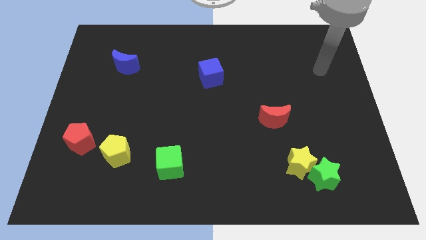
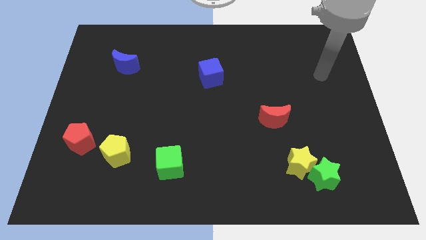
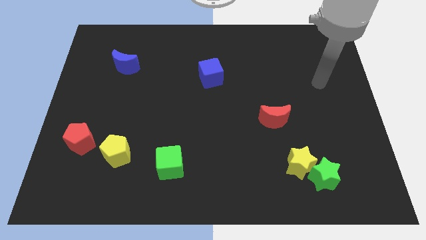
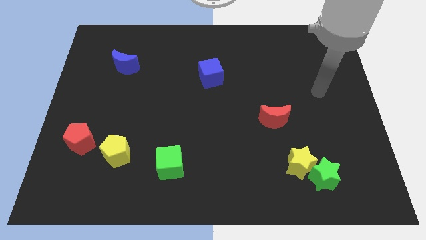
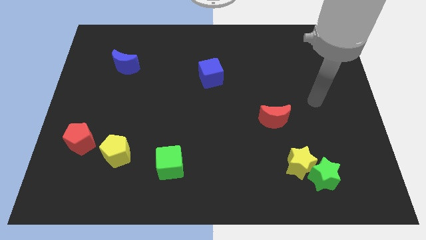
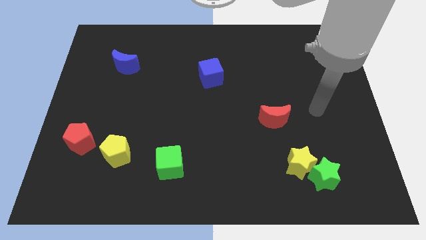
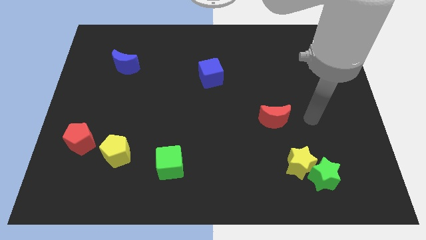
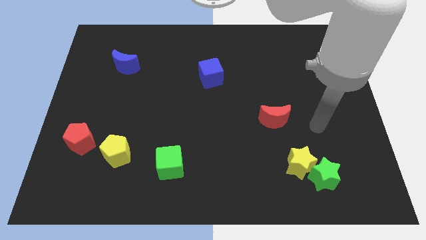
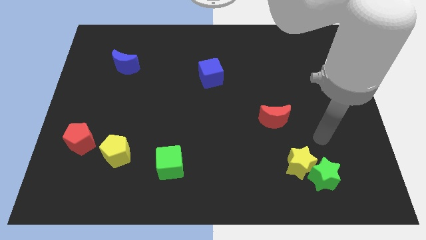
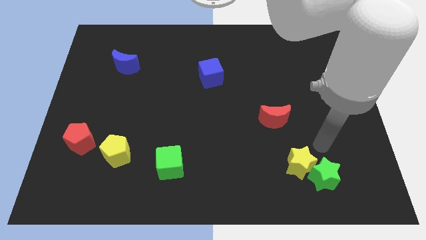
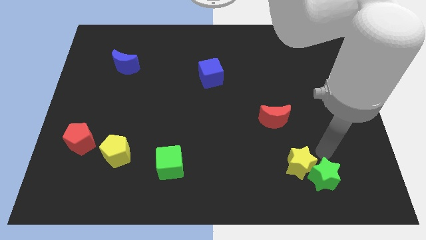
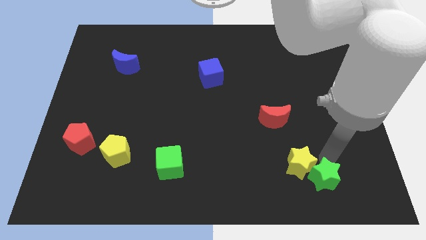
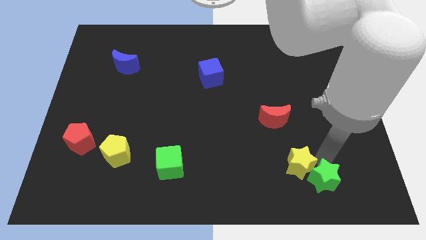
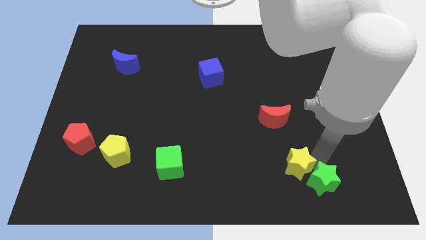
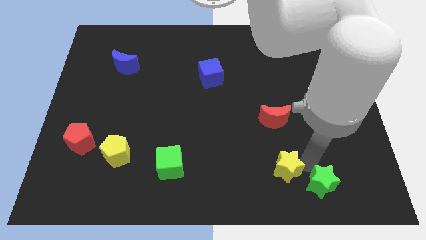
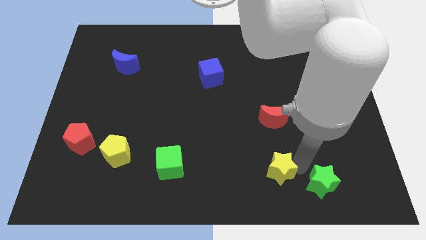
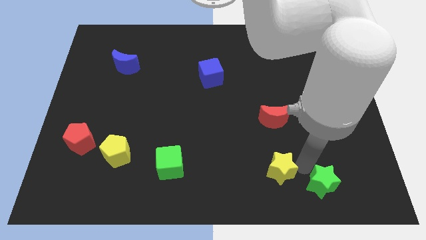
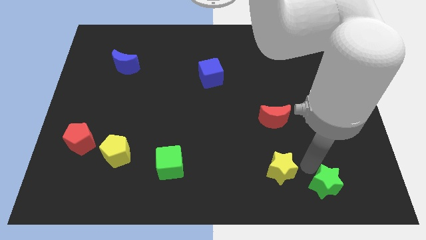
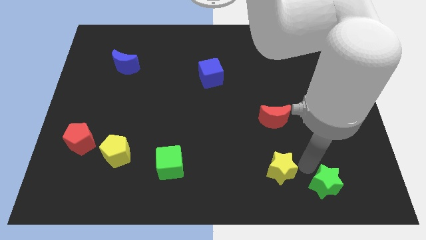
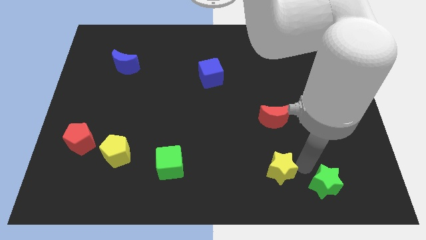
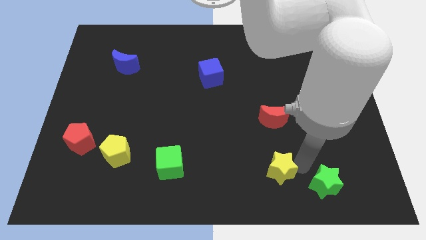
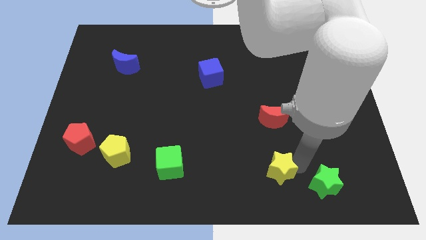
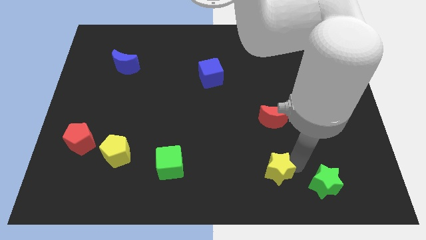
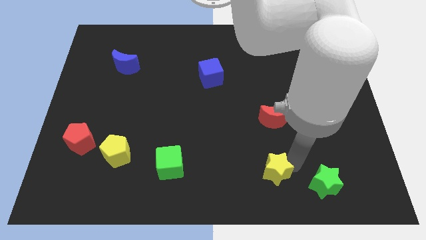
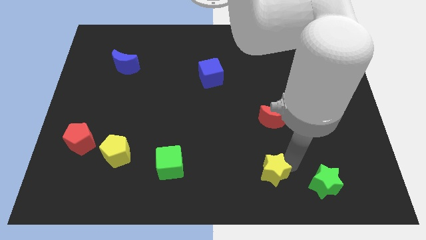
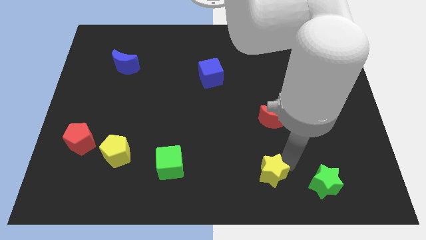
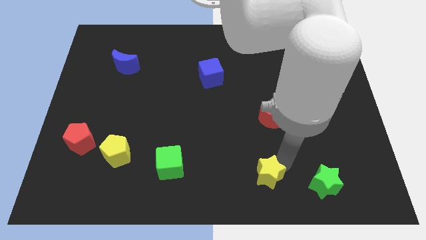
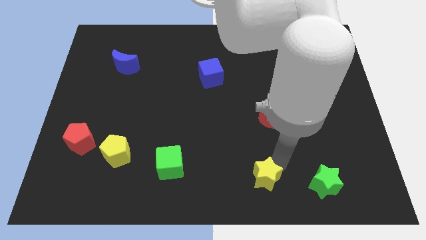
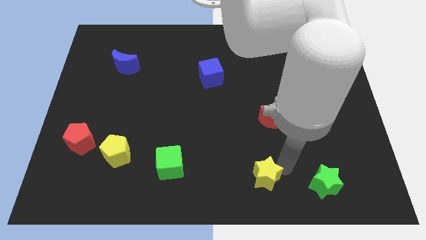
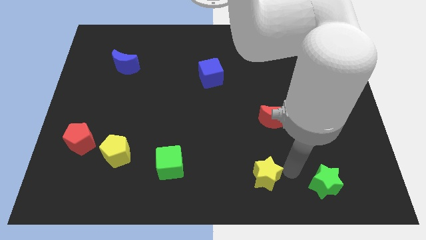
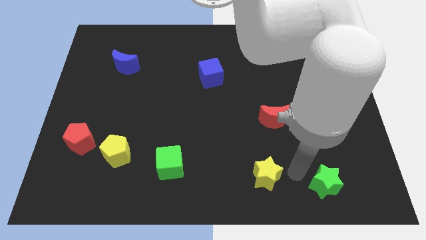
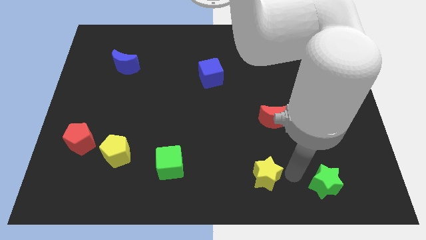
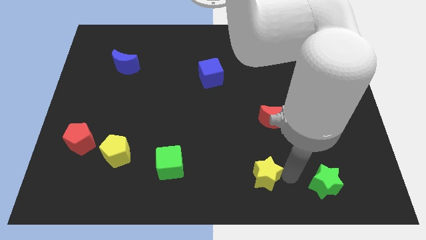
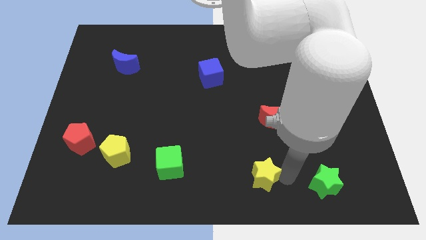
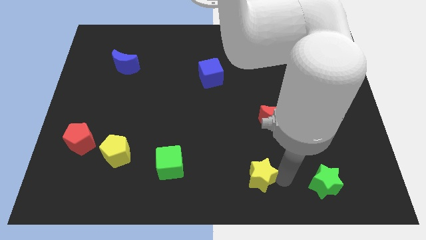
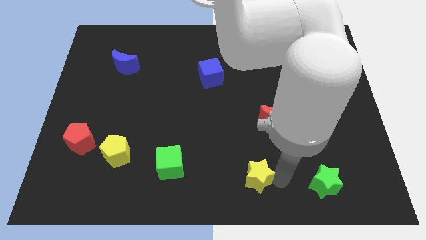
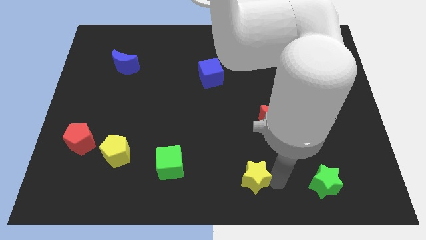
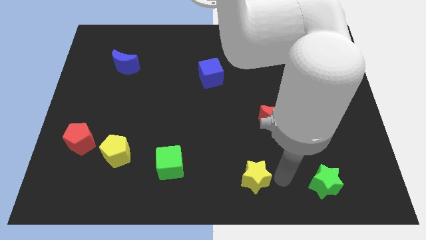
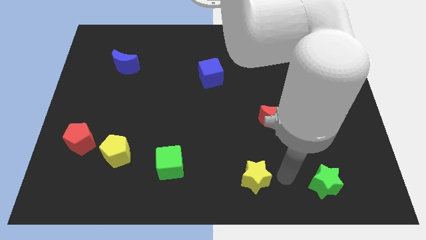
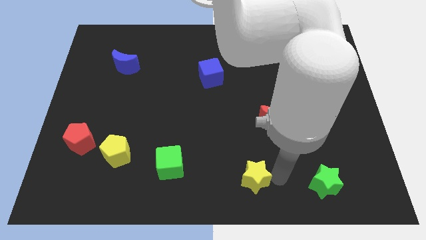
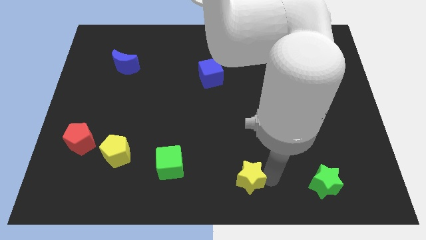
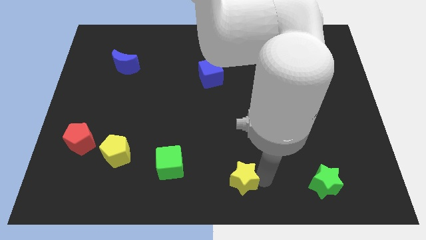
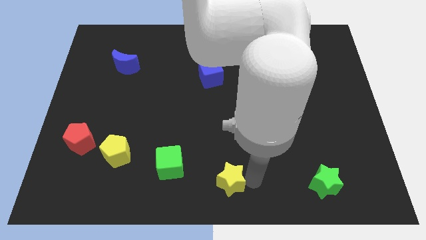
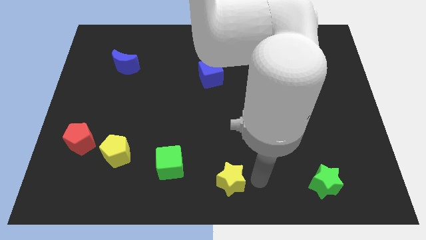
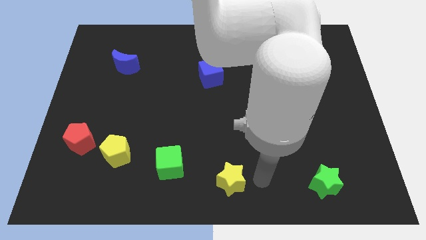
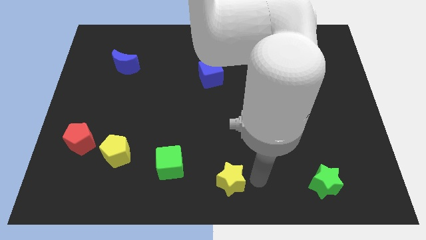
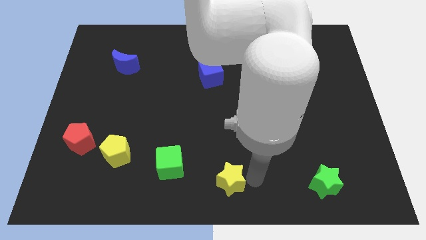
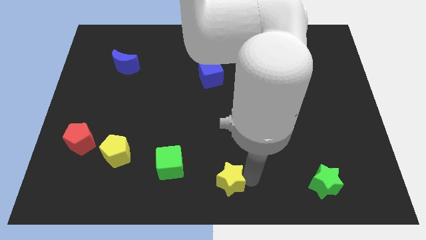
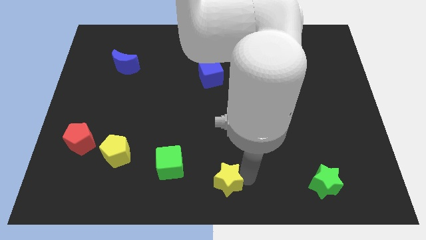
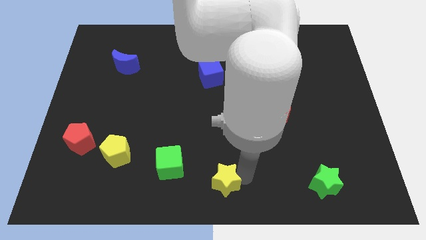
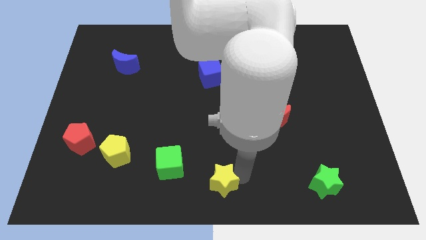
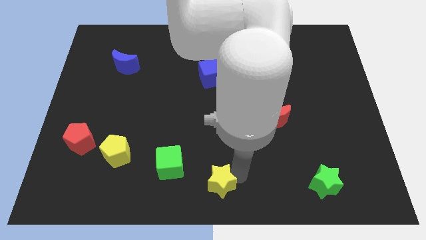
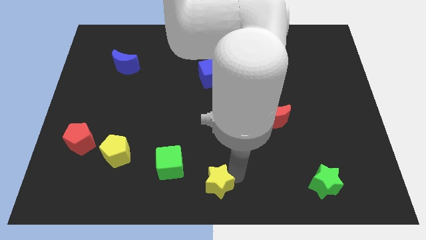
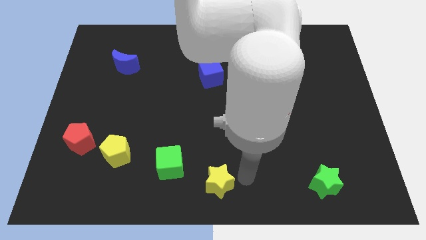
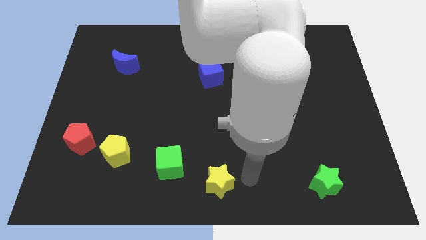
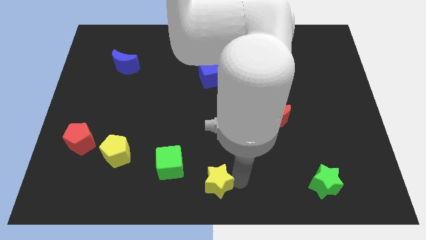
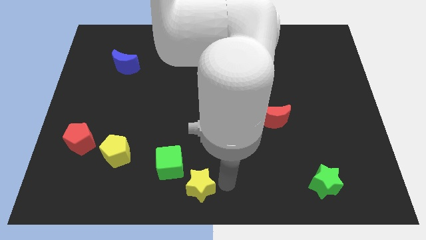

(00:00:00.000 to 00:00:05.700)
push the yellow star to the left

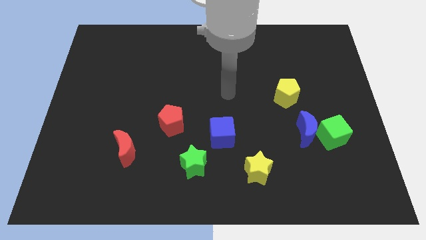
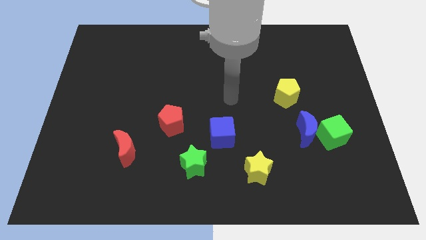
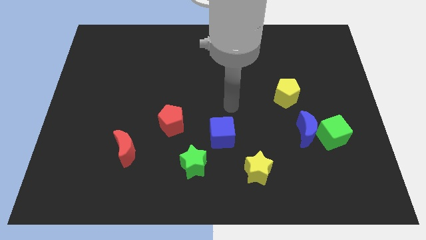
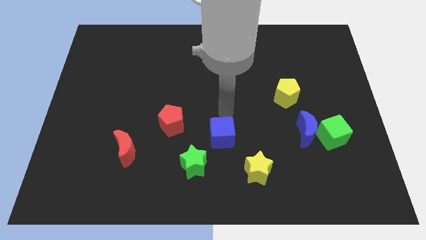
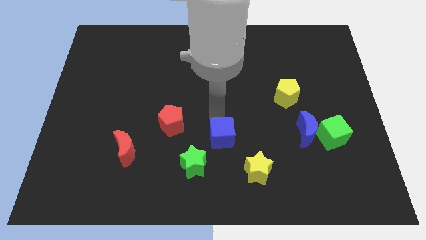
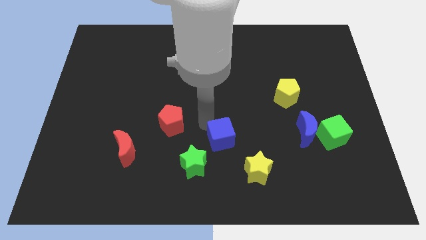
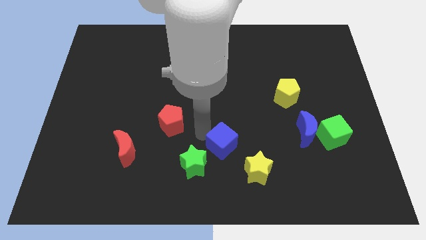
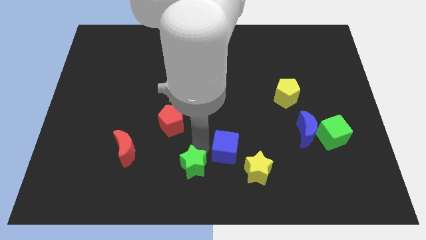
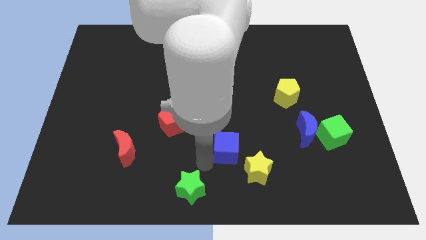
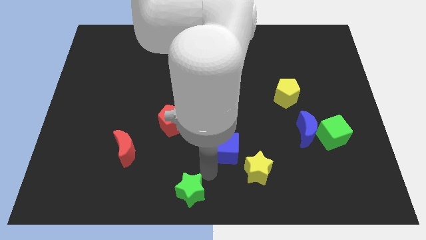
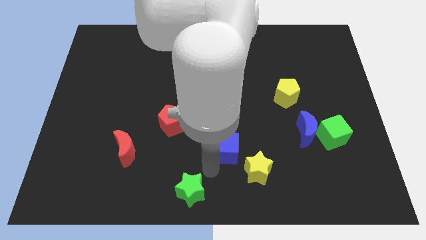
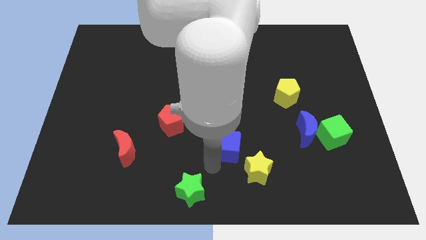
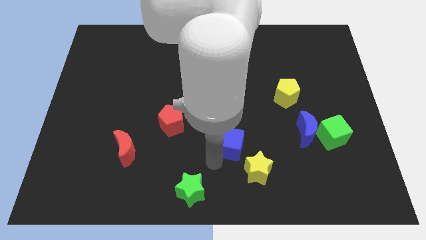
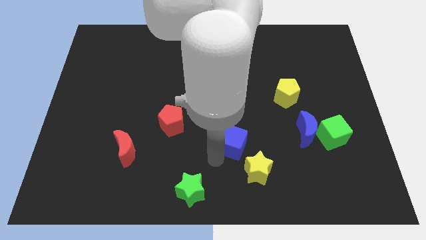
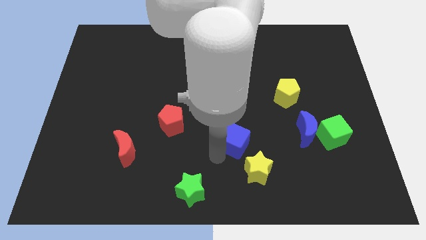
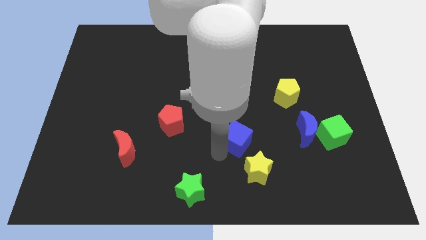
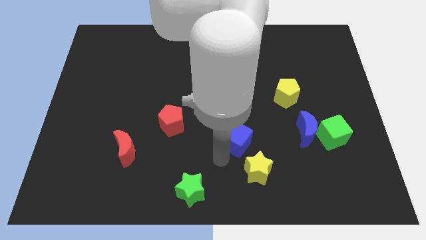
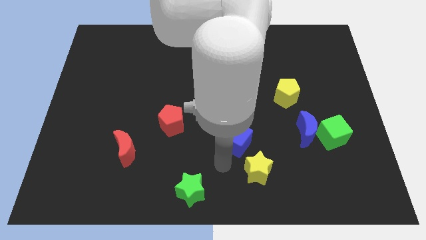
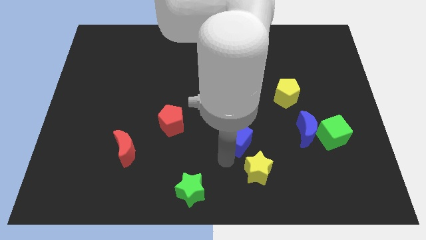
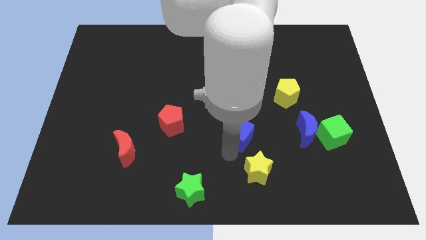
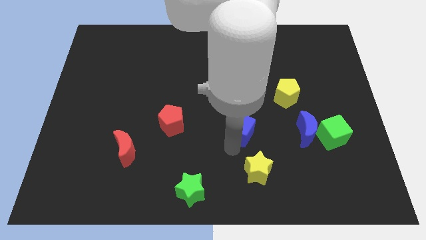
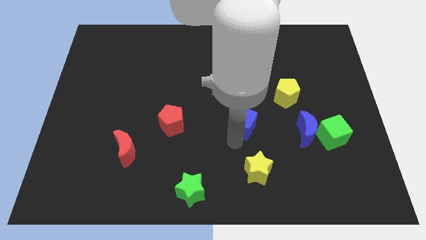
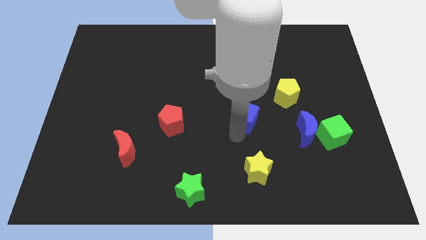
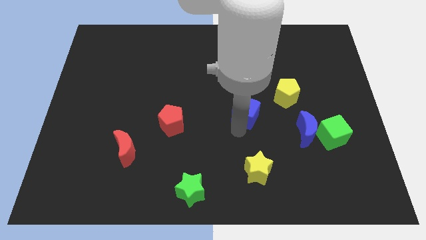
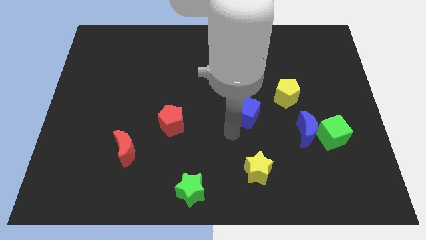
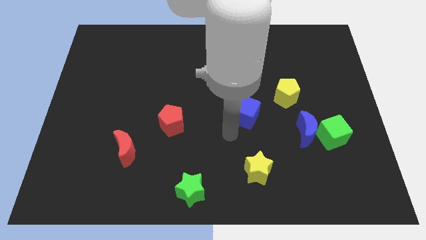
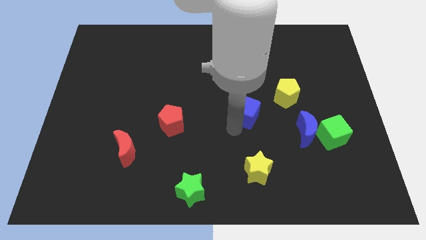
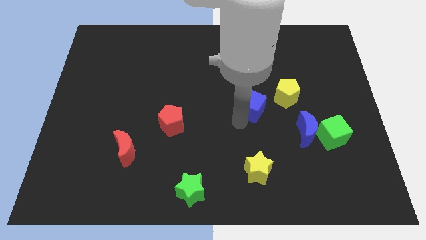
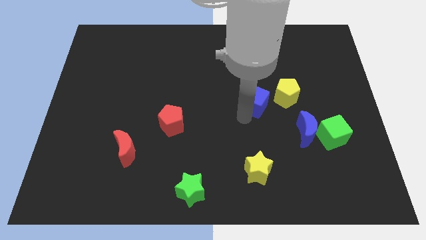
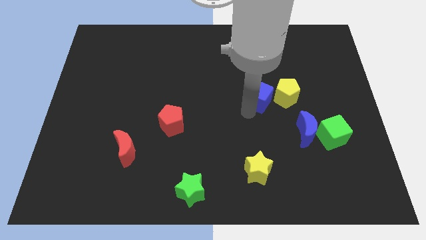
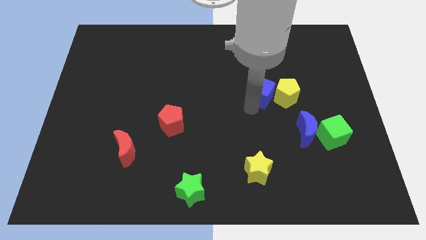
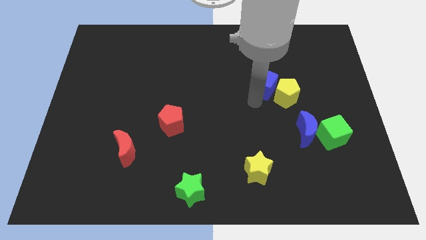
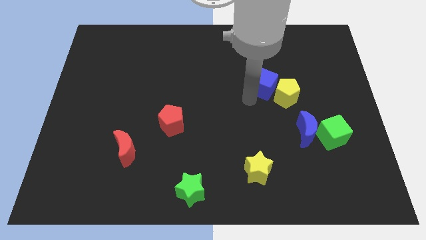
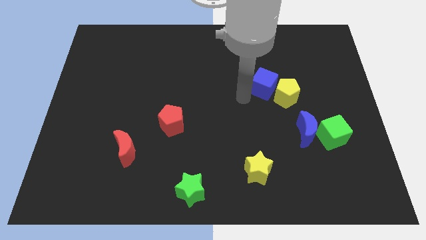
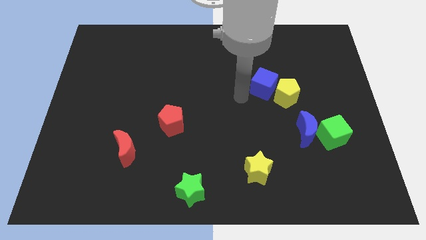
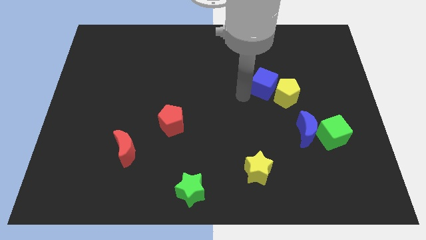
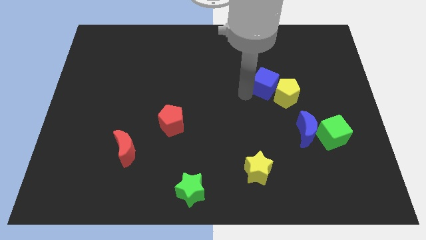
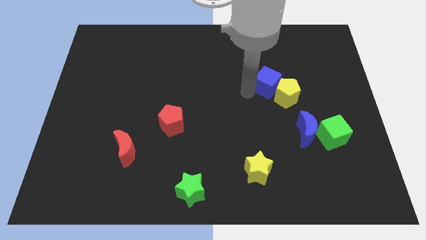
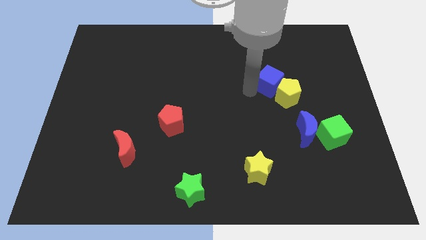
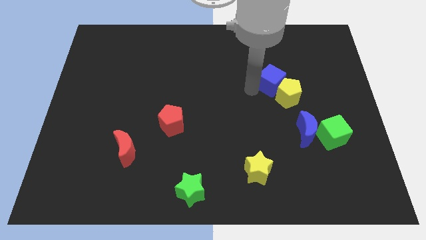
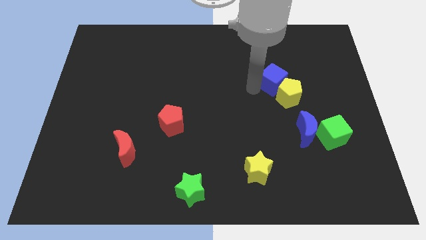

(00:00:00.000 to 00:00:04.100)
slide the blue cube upwards and to the right
